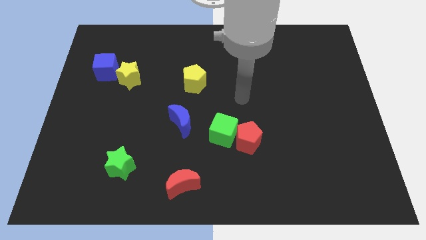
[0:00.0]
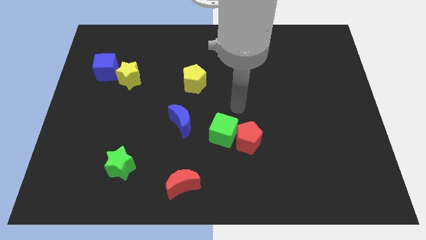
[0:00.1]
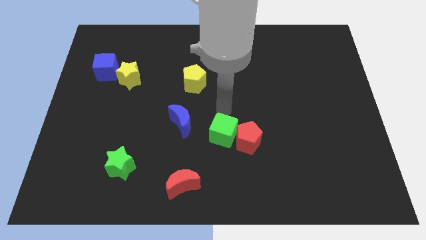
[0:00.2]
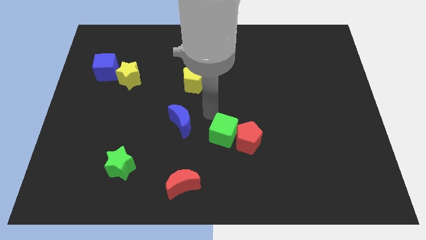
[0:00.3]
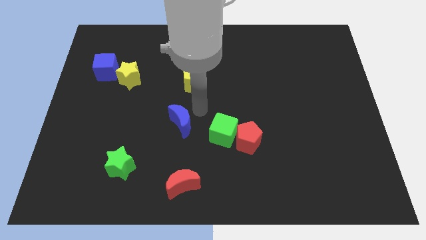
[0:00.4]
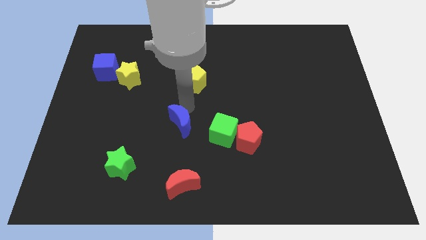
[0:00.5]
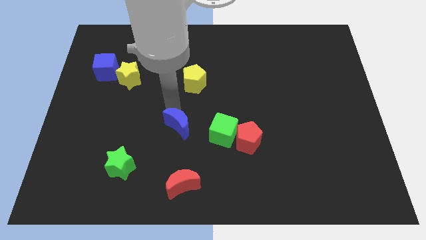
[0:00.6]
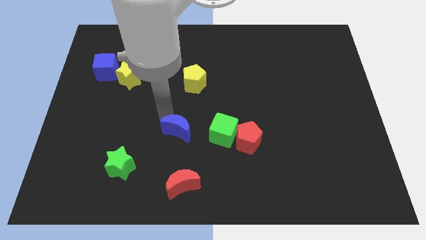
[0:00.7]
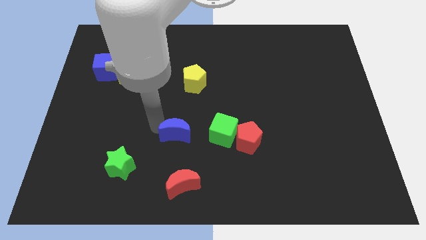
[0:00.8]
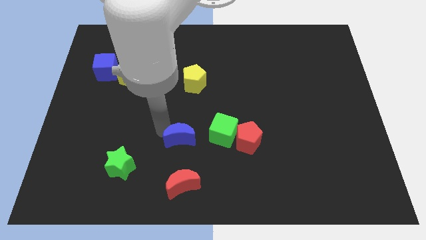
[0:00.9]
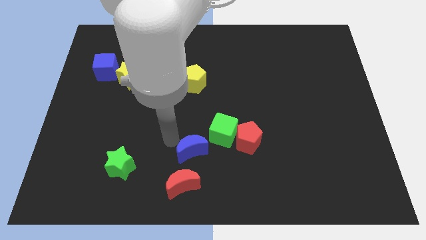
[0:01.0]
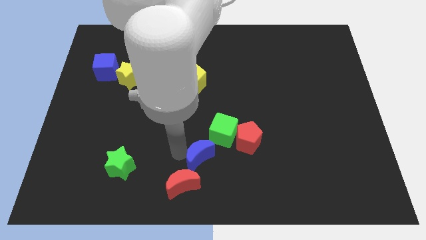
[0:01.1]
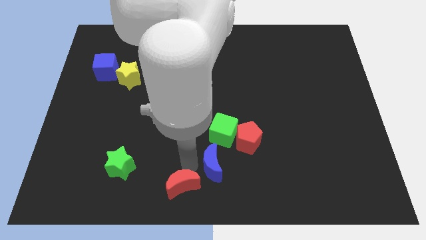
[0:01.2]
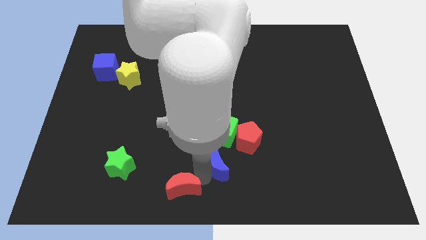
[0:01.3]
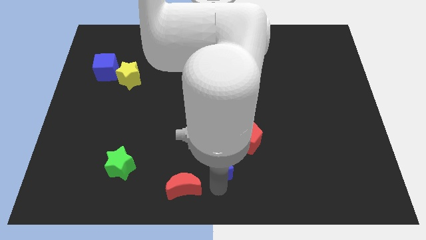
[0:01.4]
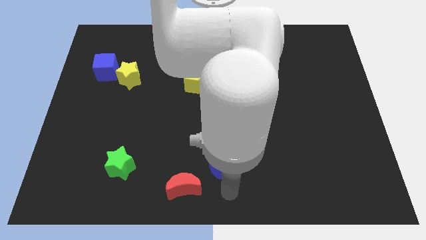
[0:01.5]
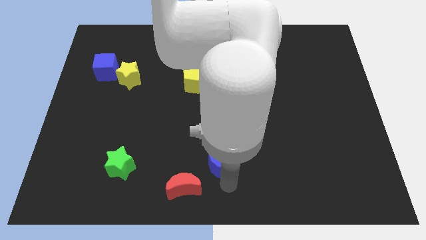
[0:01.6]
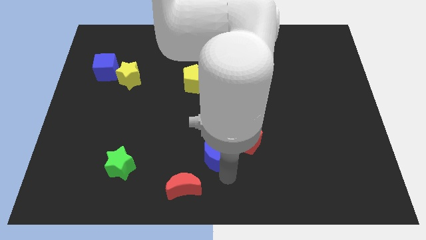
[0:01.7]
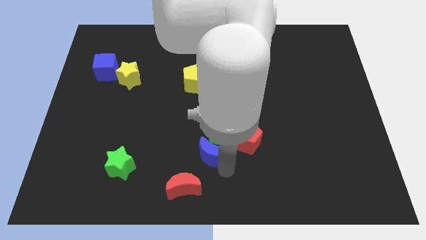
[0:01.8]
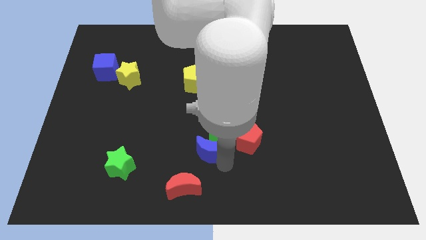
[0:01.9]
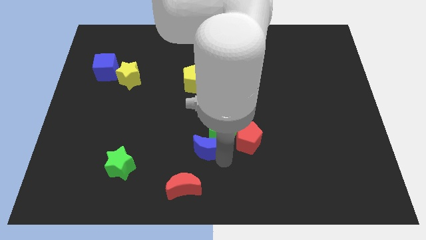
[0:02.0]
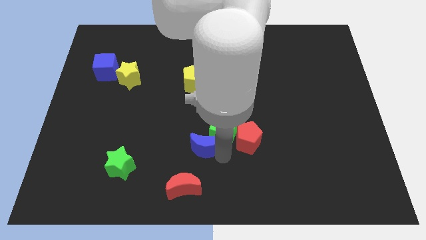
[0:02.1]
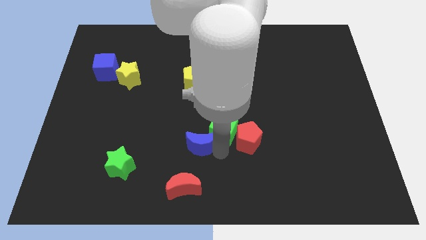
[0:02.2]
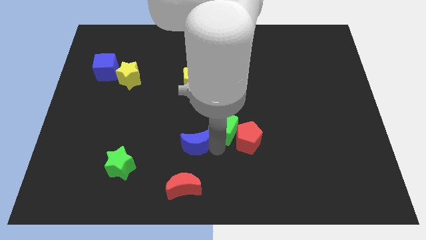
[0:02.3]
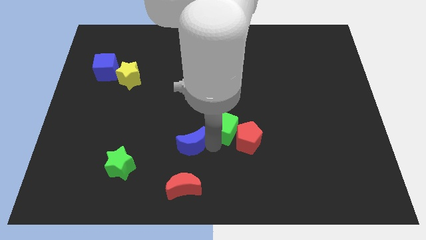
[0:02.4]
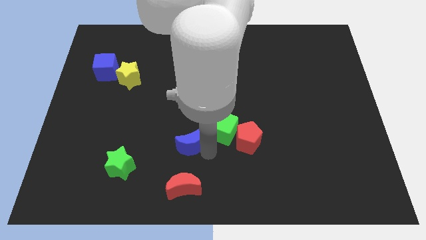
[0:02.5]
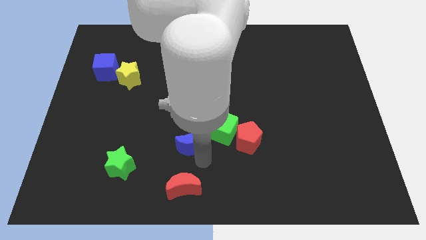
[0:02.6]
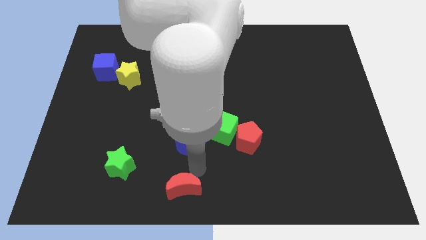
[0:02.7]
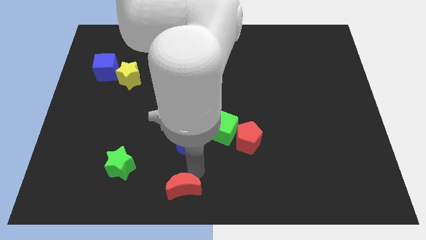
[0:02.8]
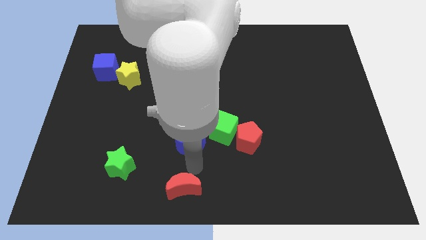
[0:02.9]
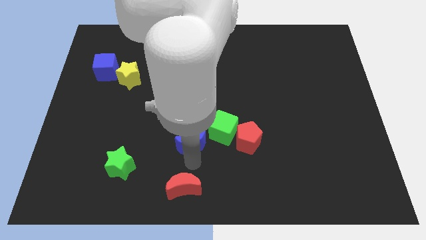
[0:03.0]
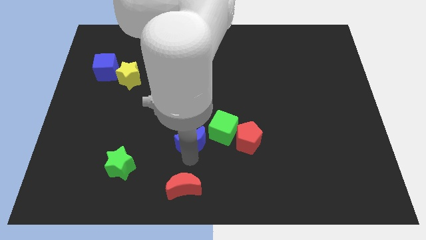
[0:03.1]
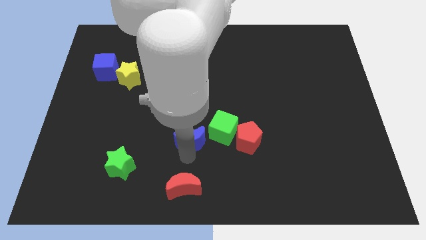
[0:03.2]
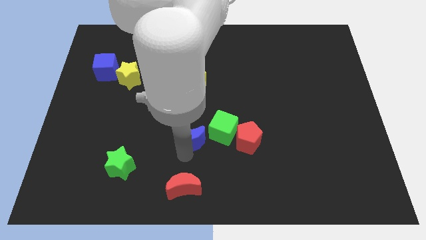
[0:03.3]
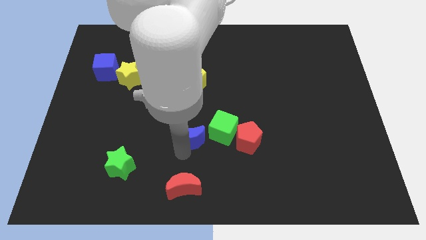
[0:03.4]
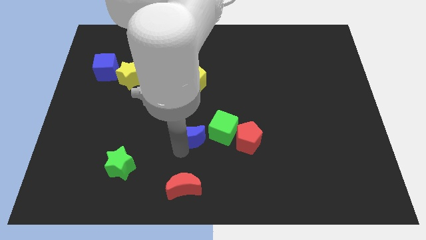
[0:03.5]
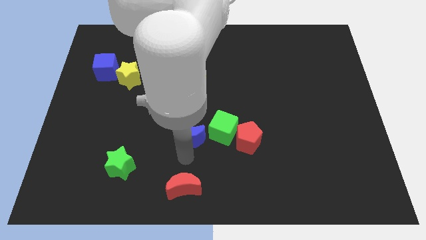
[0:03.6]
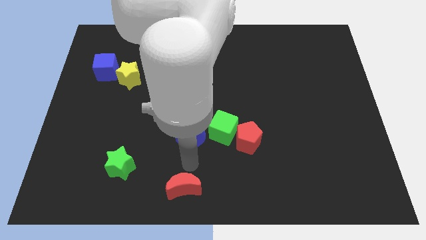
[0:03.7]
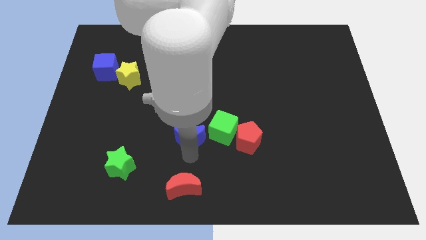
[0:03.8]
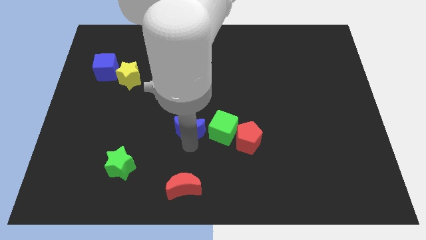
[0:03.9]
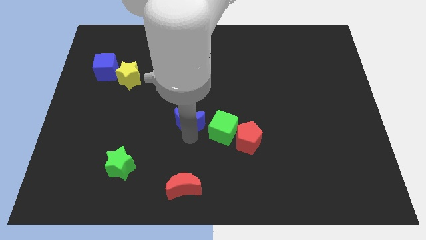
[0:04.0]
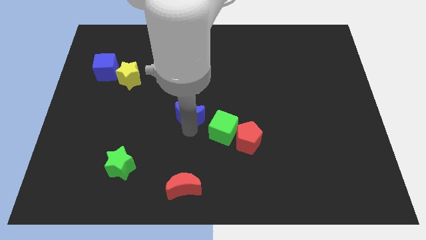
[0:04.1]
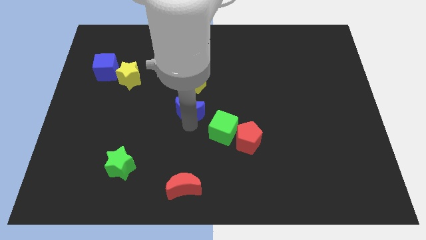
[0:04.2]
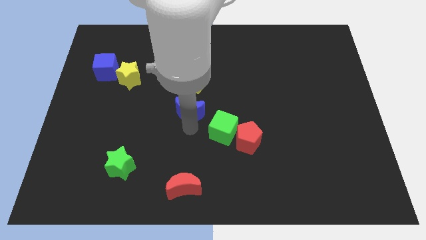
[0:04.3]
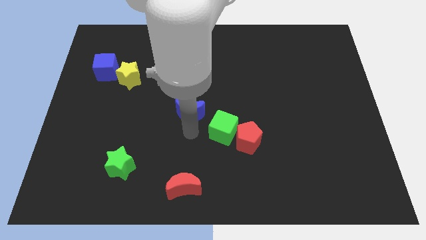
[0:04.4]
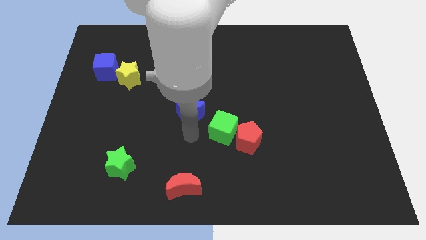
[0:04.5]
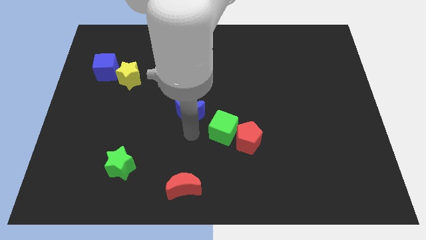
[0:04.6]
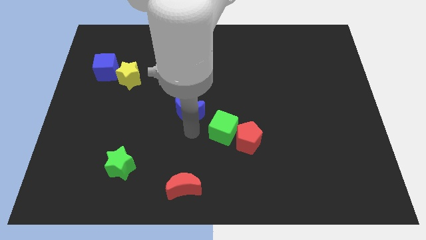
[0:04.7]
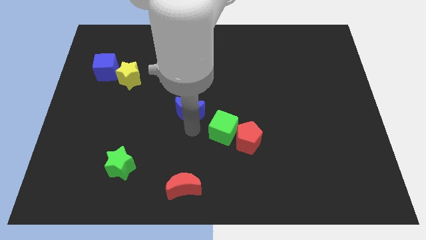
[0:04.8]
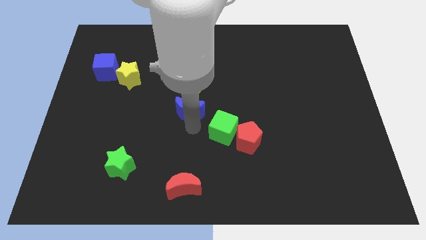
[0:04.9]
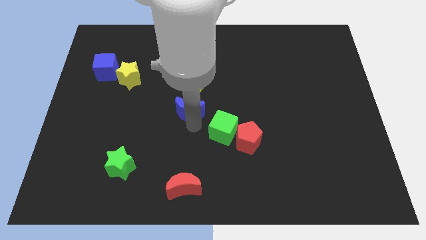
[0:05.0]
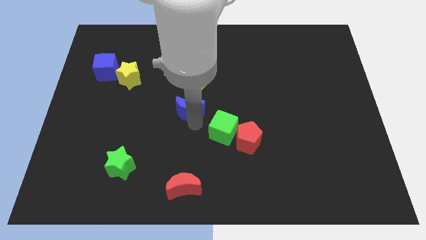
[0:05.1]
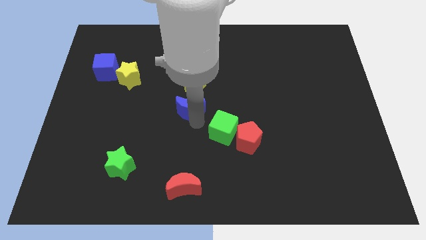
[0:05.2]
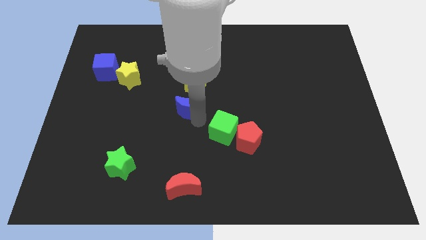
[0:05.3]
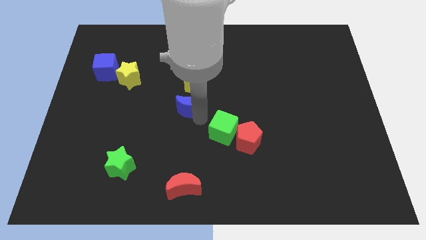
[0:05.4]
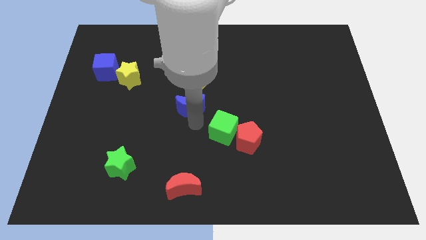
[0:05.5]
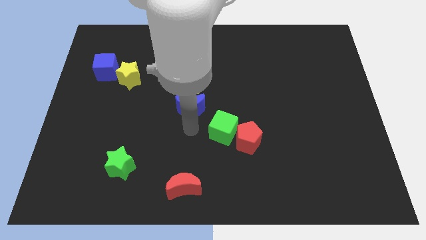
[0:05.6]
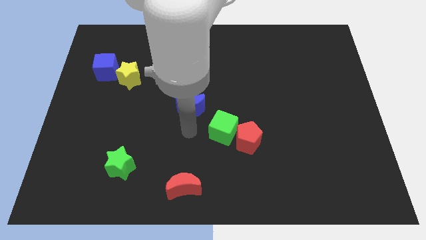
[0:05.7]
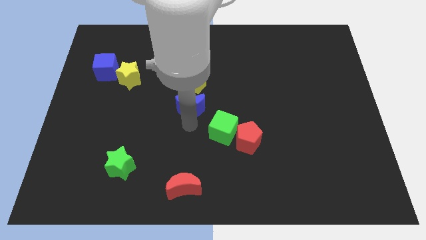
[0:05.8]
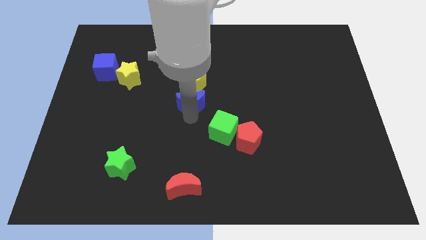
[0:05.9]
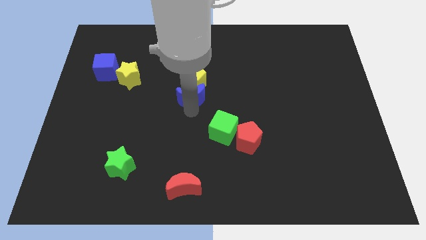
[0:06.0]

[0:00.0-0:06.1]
slide the blue moon towards the yellow pentagon

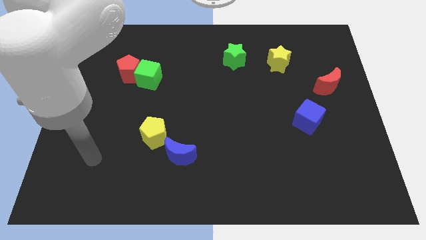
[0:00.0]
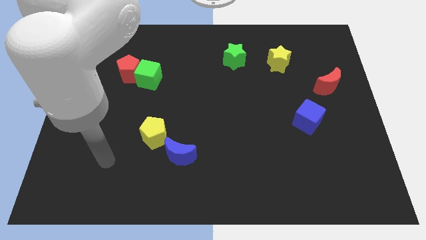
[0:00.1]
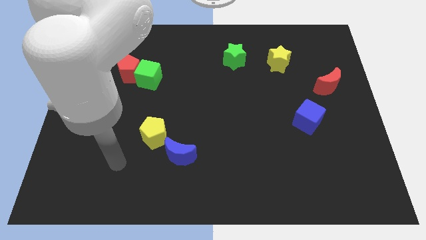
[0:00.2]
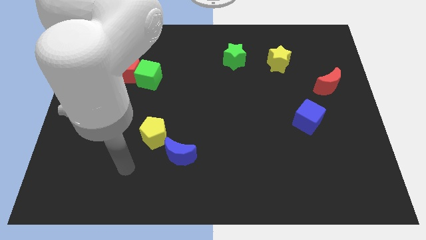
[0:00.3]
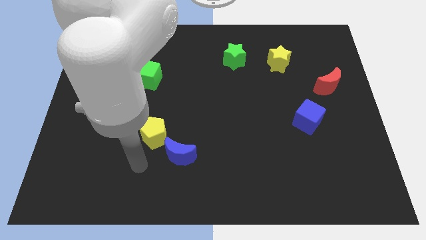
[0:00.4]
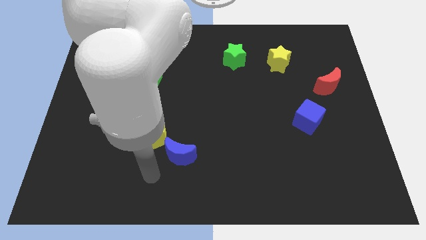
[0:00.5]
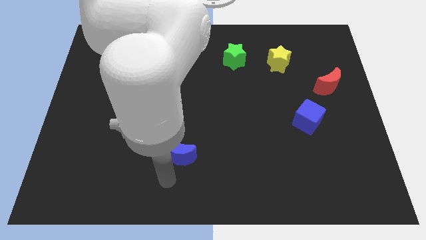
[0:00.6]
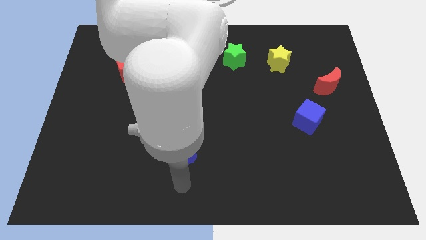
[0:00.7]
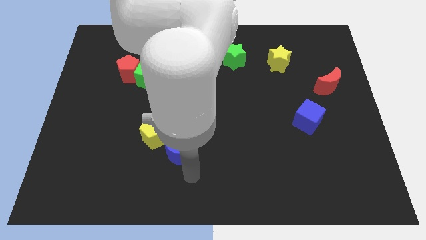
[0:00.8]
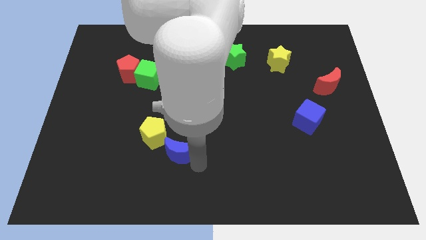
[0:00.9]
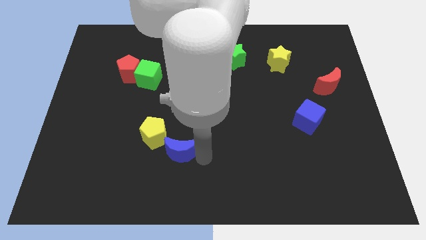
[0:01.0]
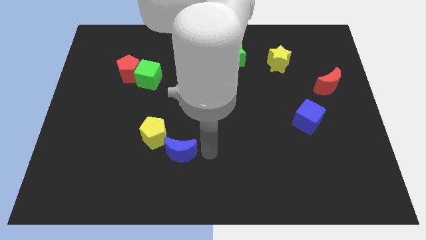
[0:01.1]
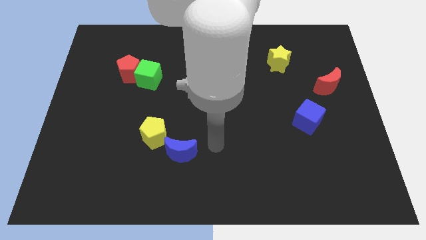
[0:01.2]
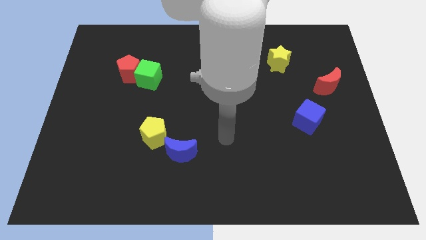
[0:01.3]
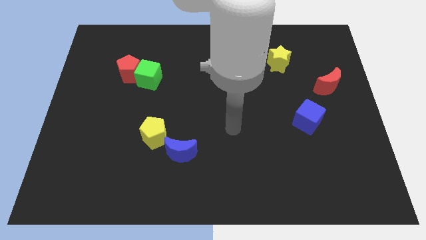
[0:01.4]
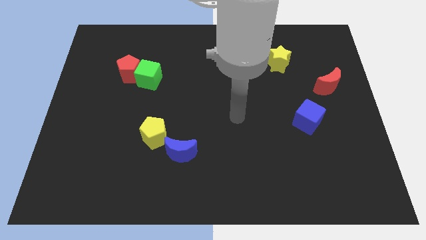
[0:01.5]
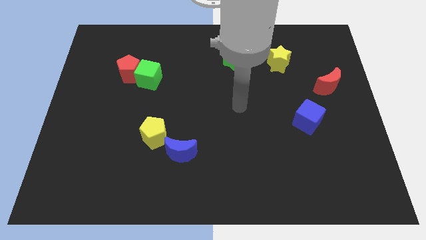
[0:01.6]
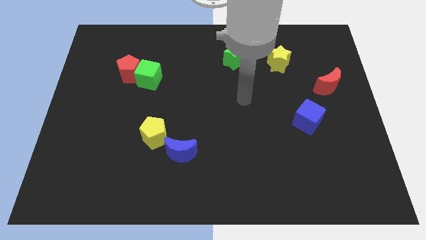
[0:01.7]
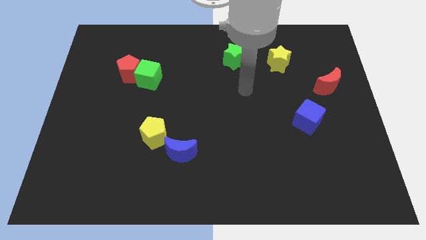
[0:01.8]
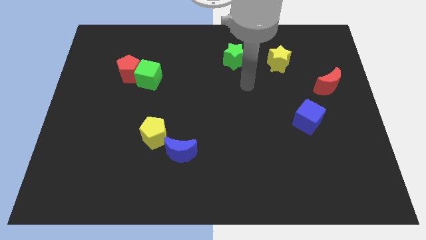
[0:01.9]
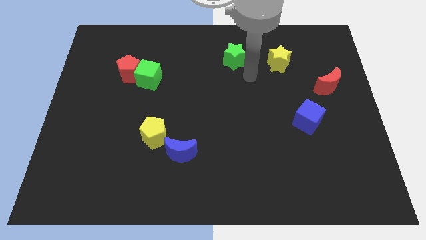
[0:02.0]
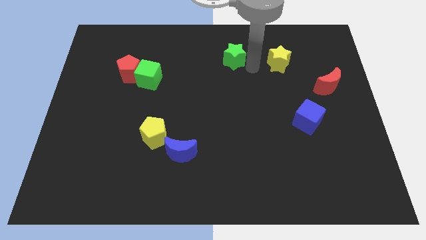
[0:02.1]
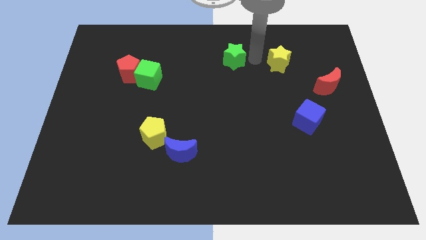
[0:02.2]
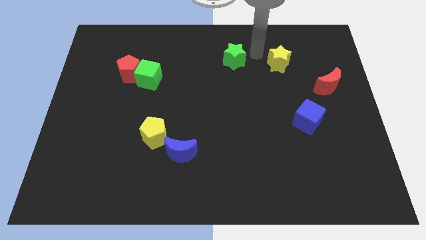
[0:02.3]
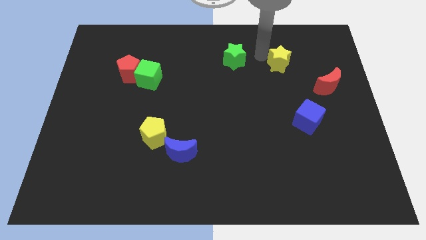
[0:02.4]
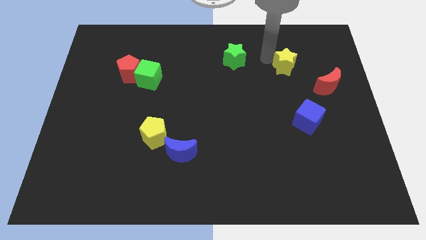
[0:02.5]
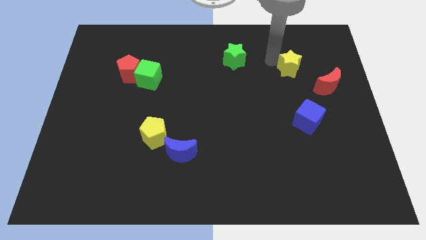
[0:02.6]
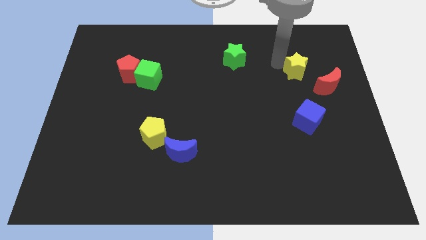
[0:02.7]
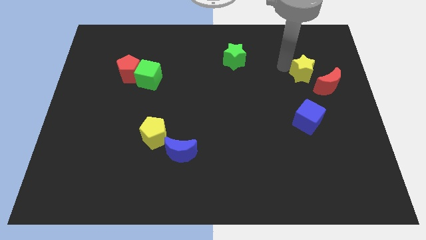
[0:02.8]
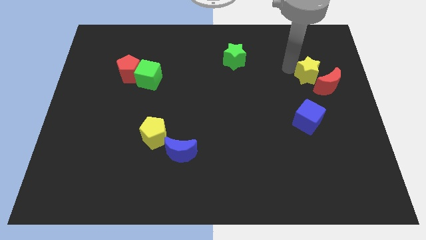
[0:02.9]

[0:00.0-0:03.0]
move the yellow star next to the red moon
